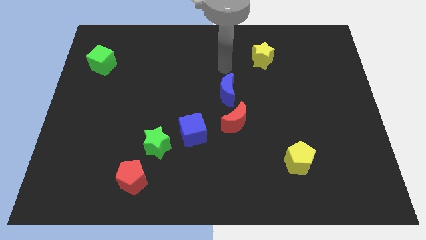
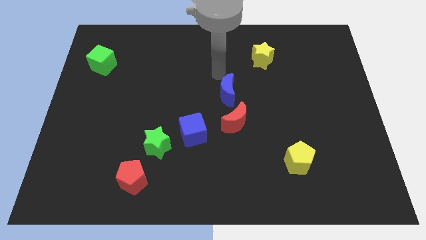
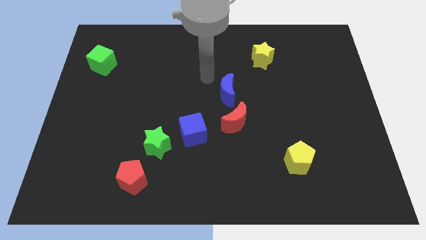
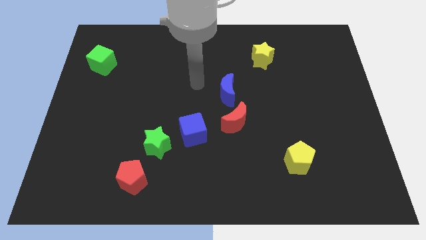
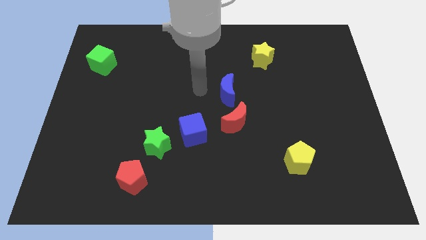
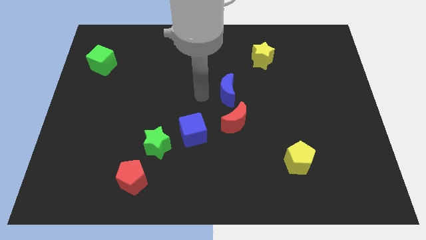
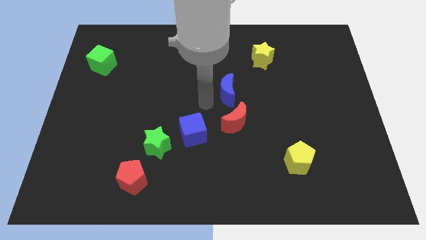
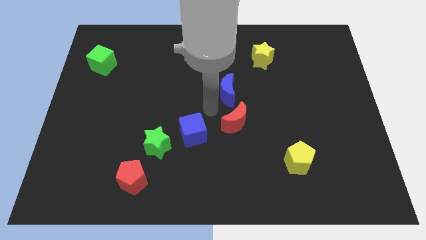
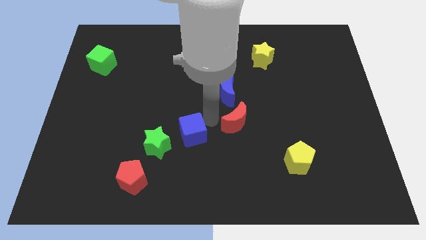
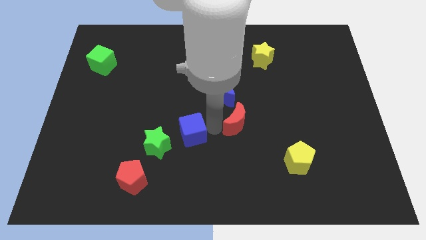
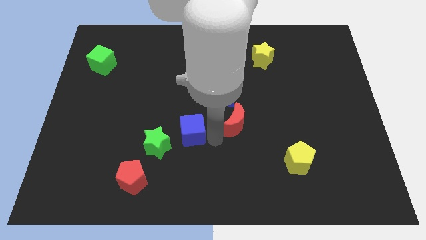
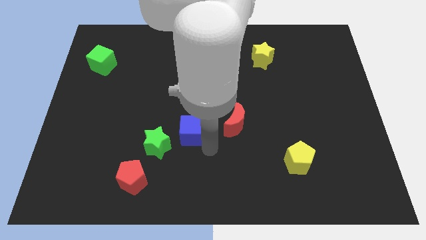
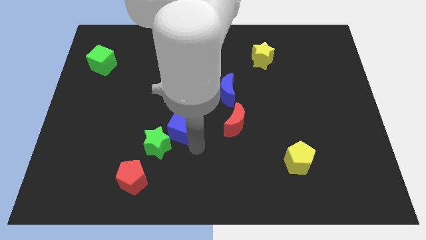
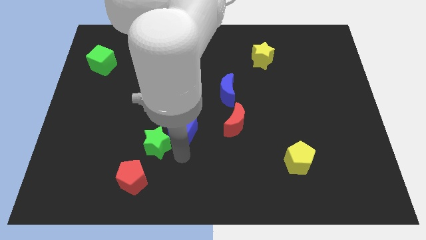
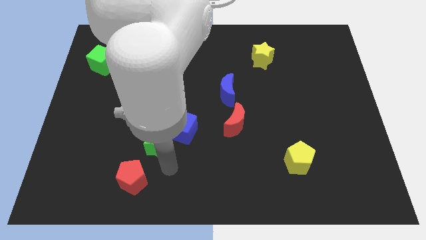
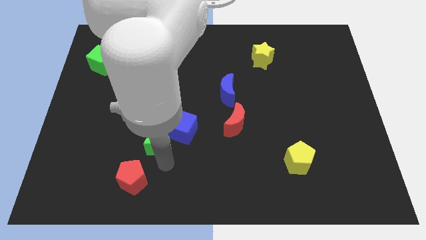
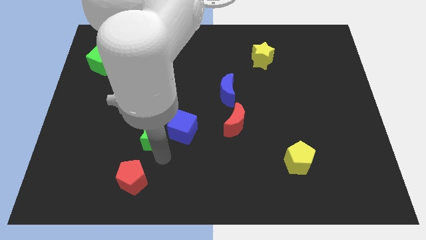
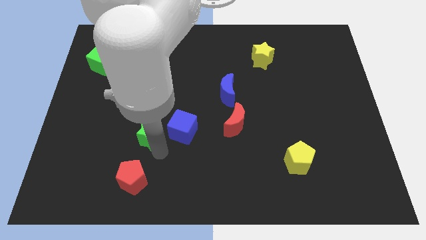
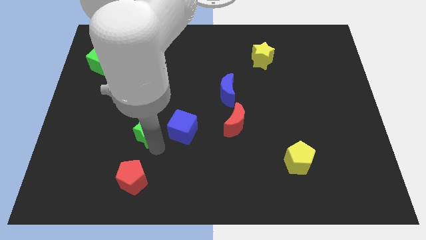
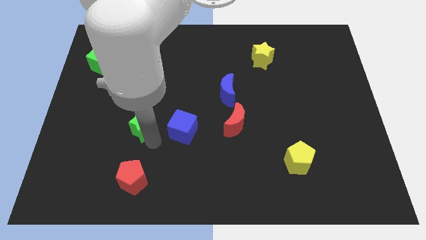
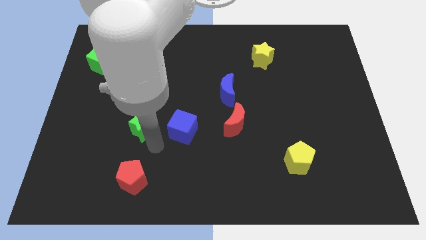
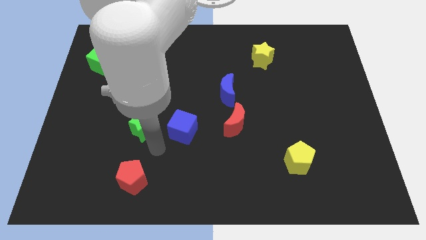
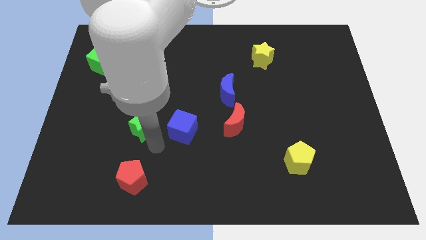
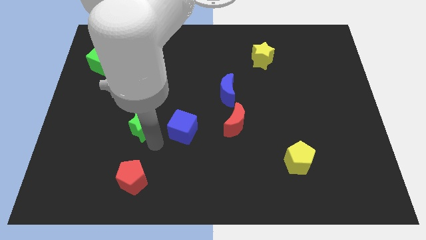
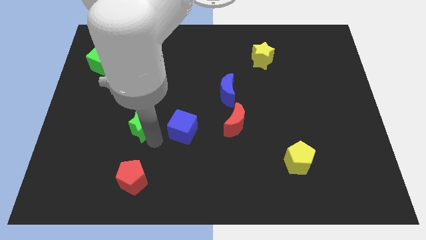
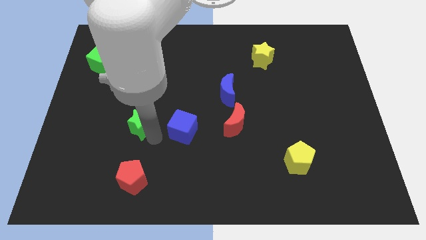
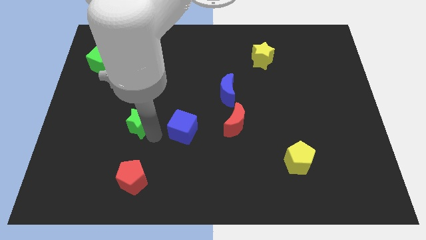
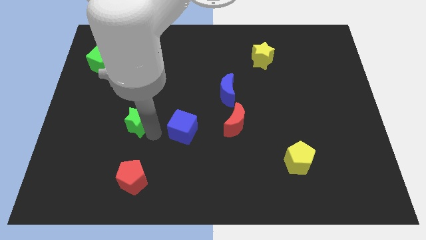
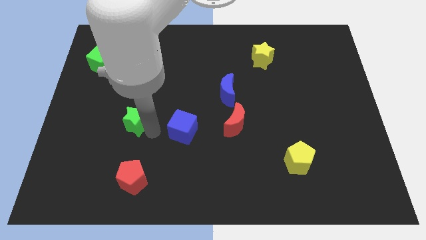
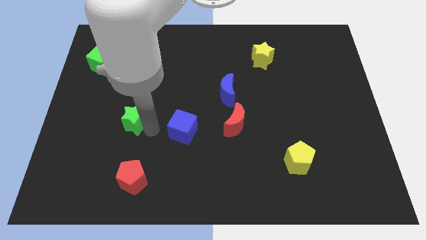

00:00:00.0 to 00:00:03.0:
move the green star away from the blue cube and red pentagon

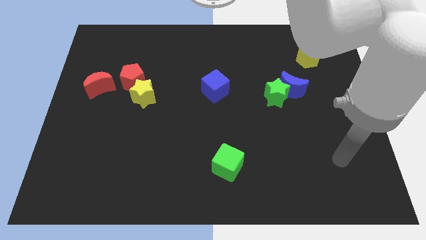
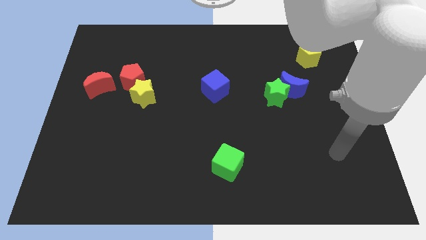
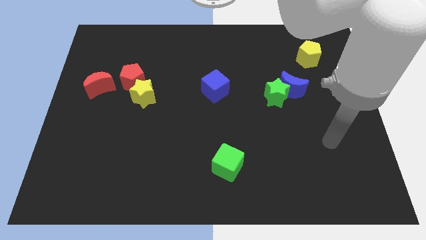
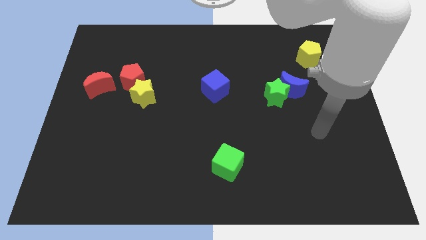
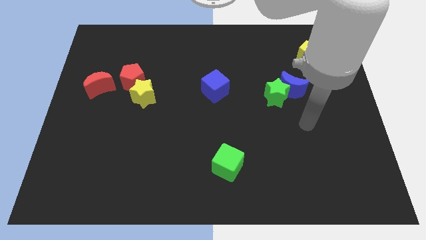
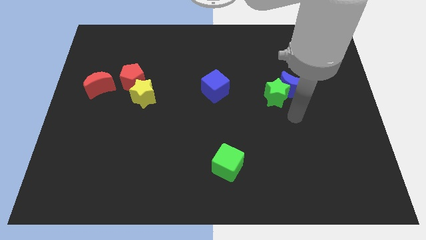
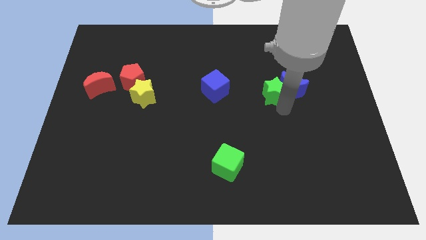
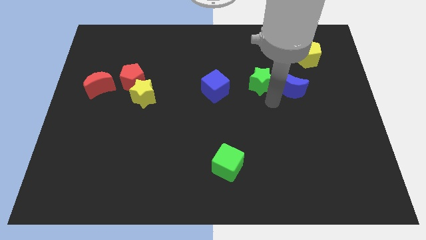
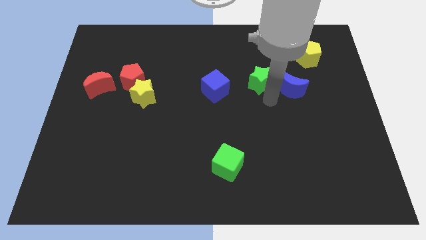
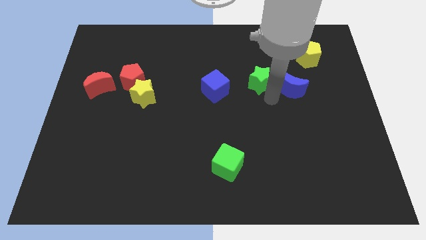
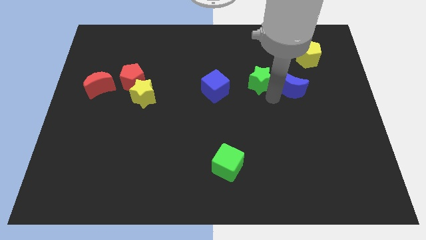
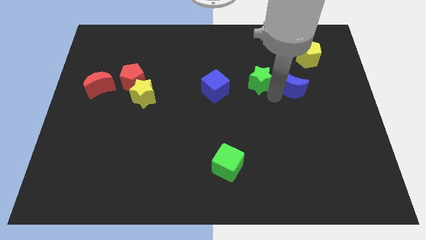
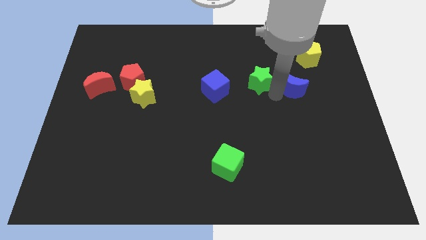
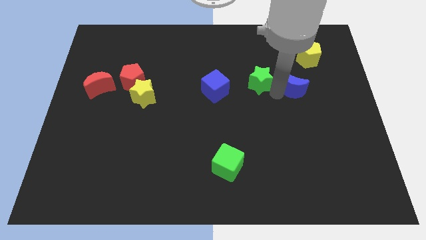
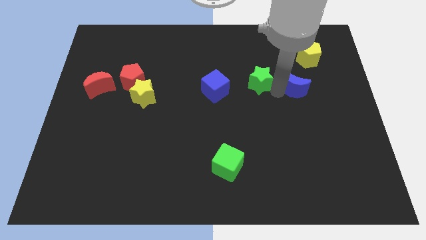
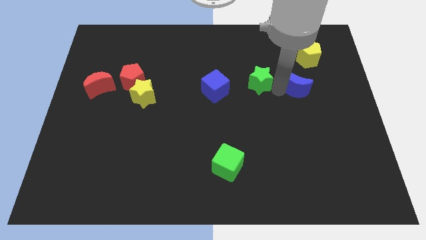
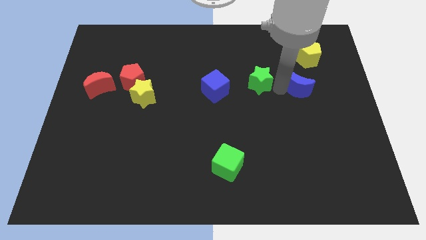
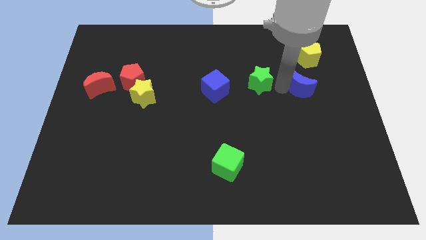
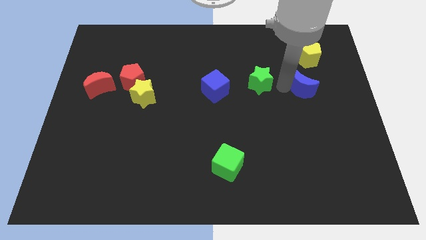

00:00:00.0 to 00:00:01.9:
move the blue moon away from the green star

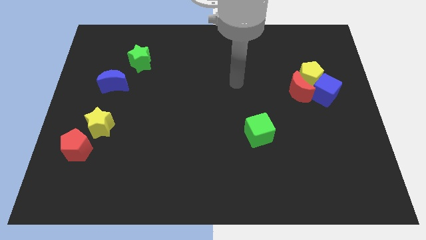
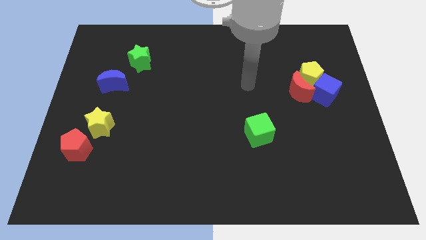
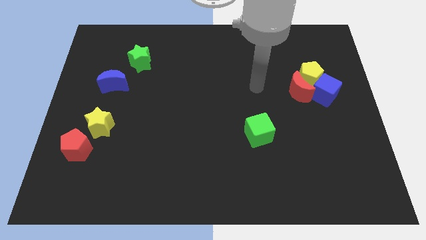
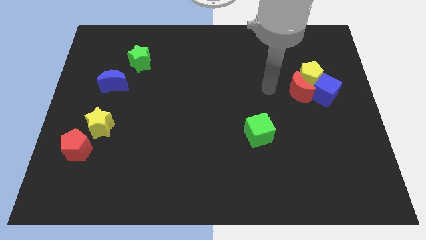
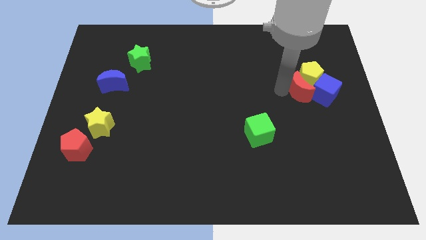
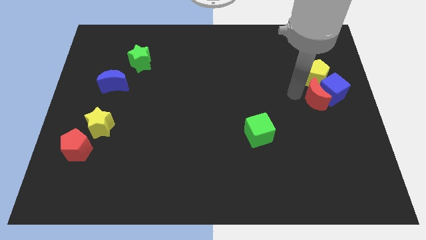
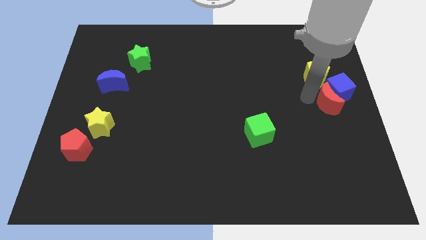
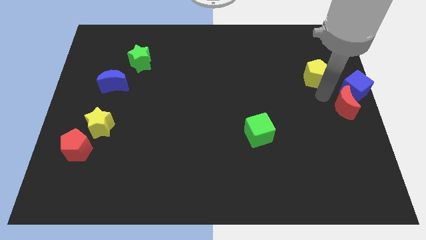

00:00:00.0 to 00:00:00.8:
separate the yellow pentagon from the red moon and blue cube

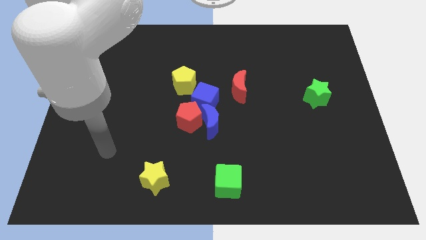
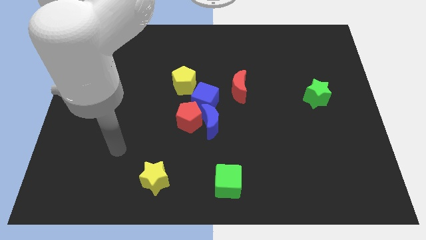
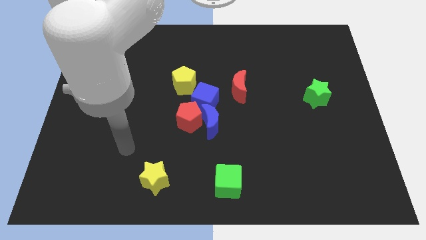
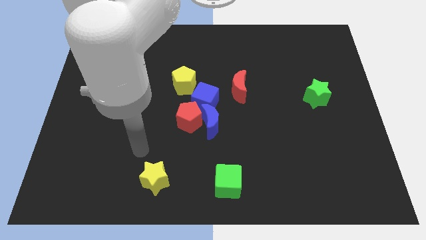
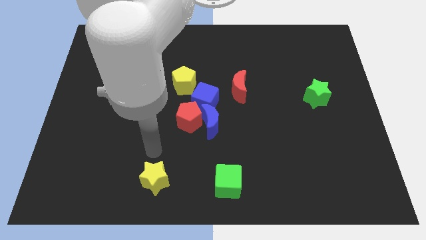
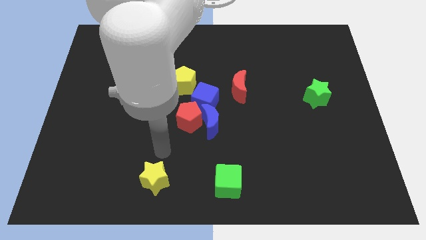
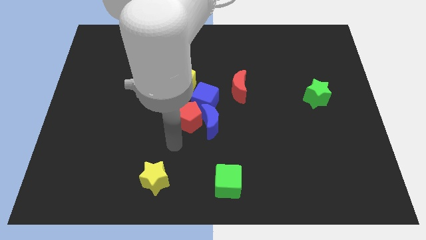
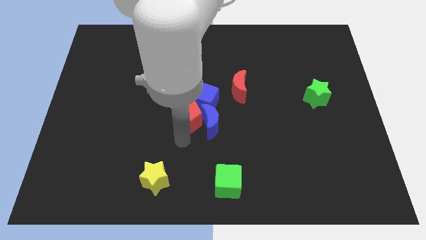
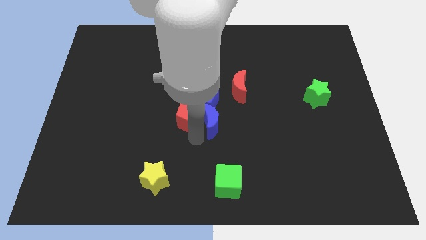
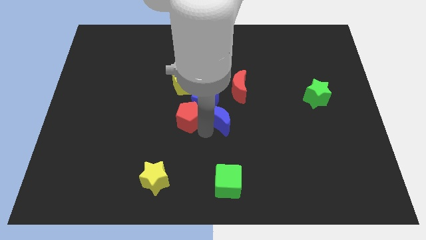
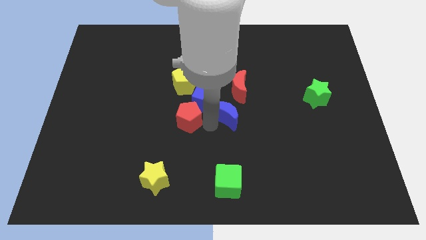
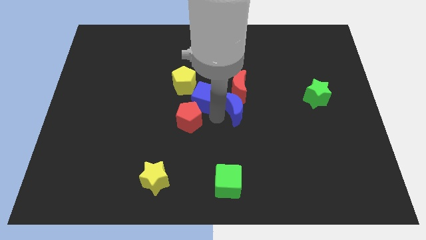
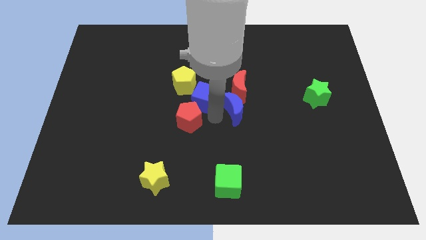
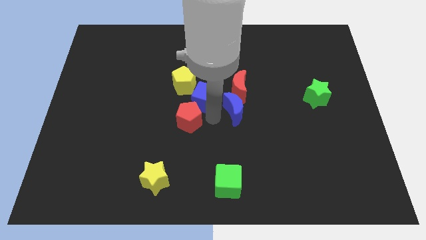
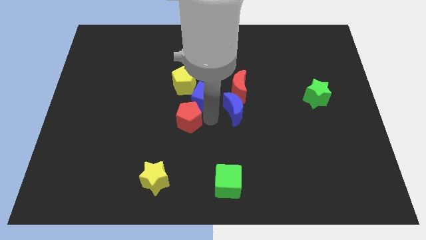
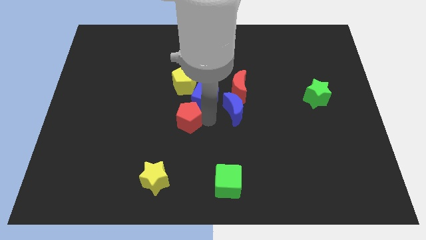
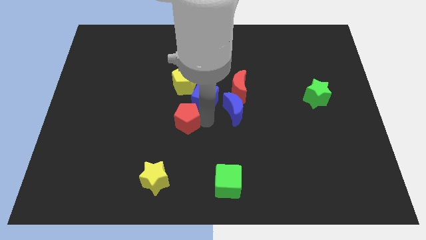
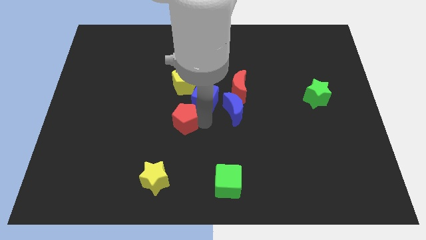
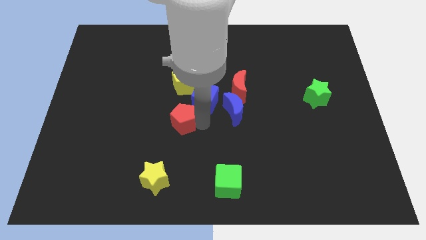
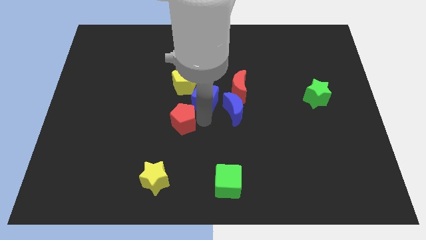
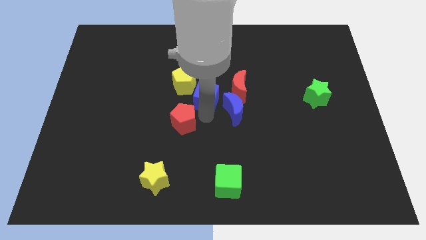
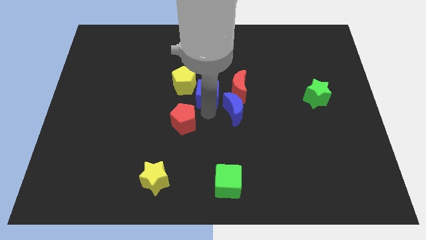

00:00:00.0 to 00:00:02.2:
move the red pentagon away from the blue moon and blue cube

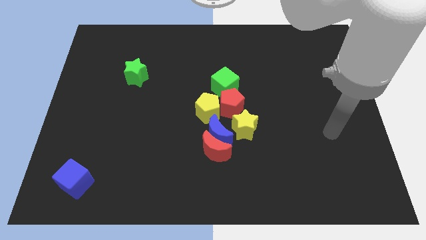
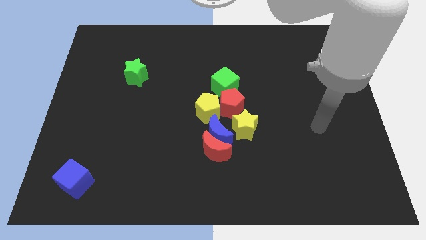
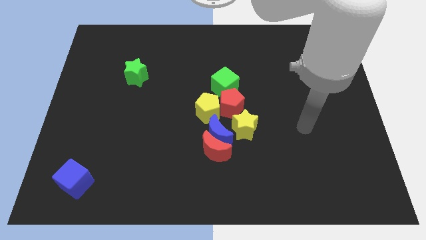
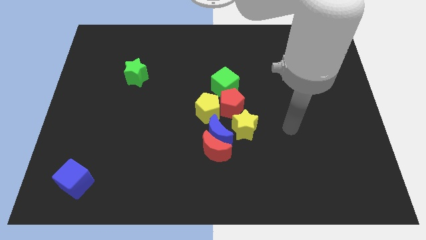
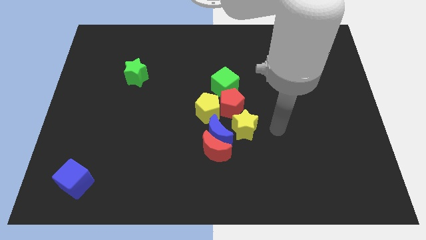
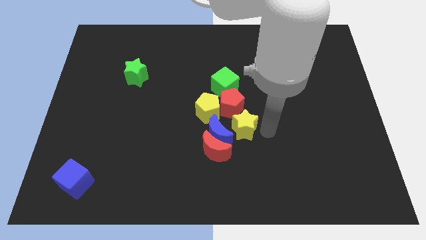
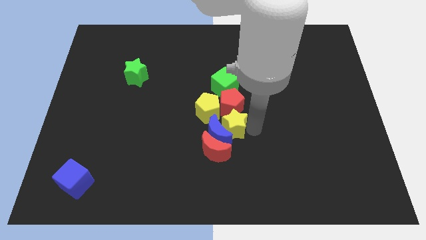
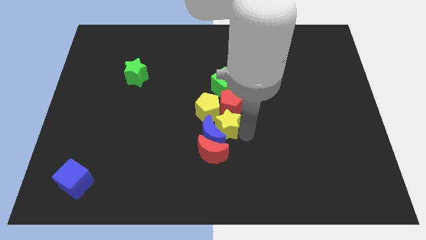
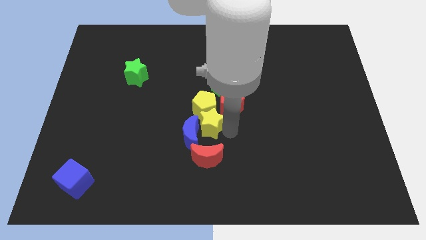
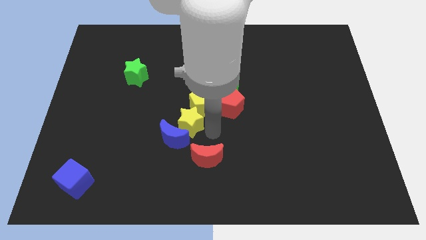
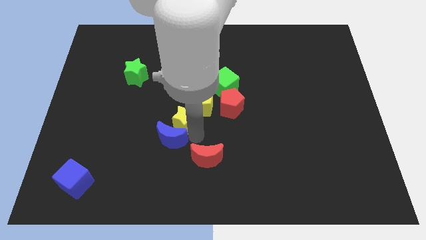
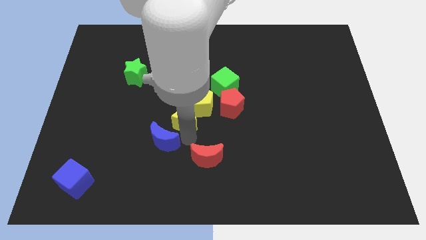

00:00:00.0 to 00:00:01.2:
pull the red moon apart from the blue moon and yellow star

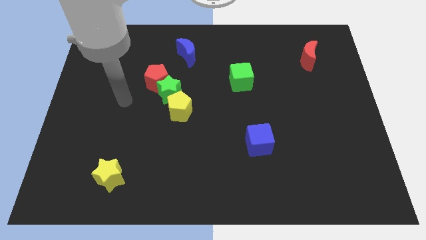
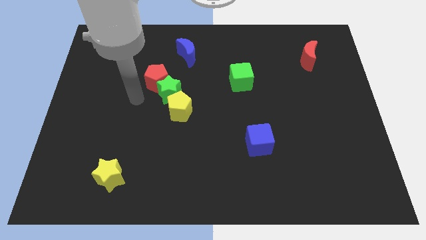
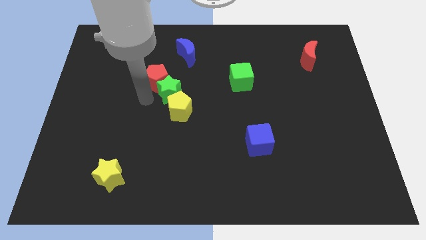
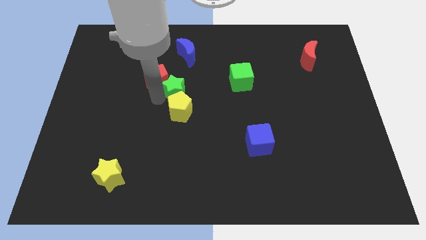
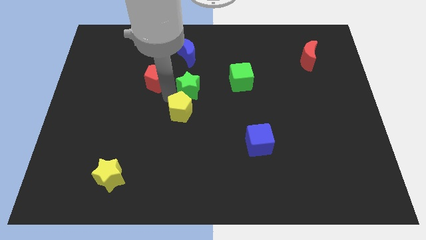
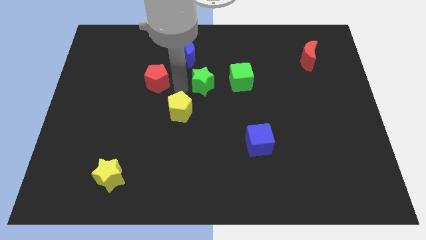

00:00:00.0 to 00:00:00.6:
move the red pentagon away from the green star
